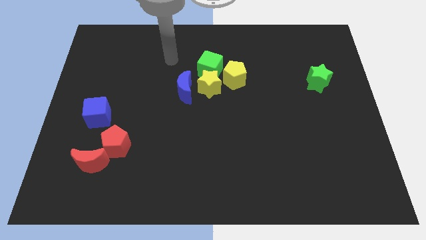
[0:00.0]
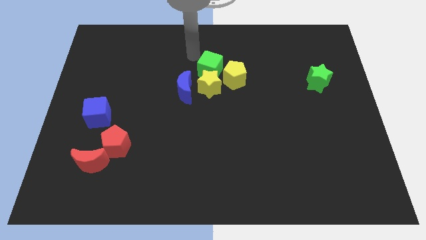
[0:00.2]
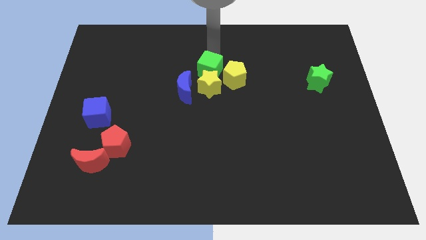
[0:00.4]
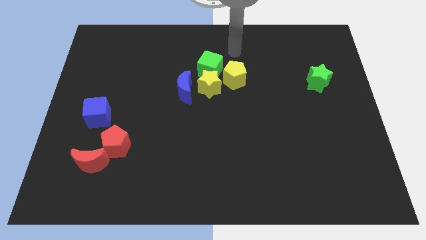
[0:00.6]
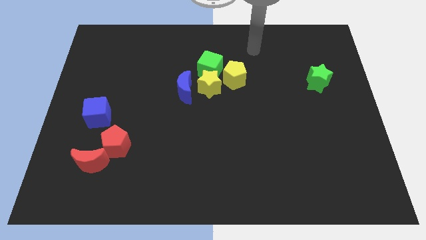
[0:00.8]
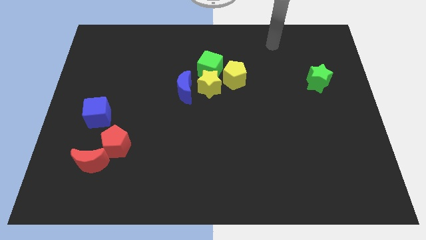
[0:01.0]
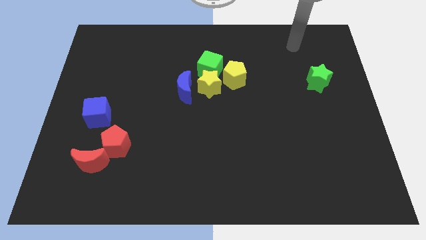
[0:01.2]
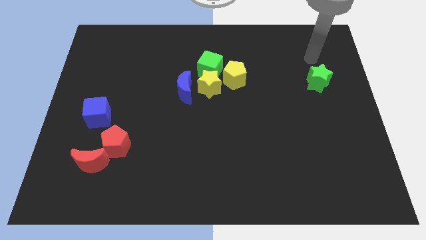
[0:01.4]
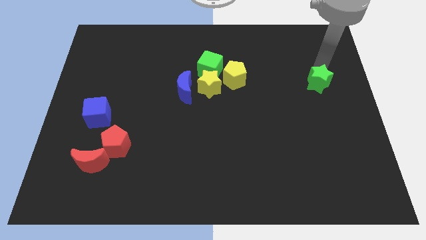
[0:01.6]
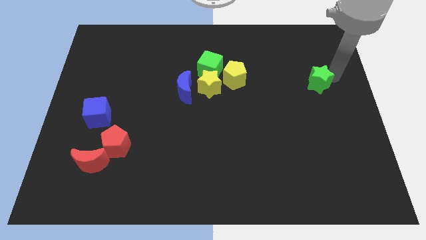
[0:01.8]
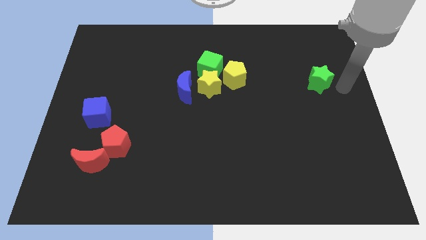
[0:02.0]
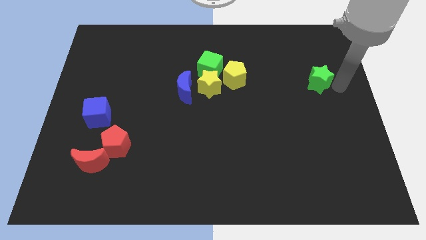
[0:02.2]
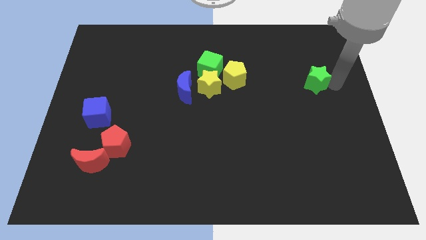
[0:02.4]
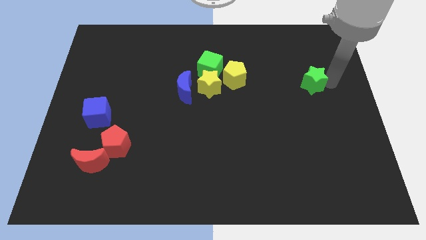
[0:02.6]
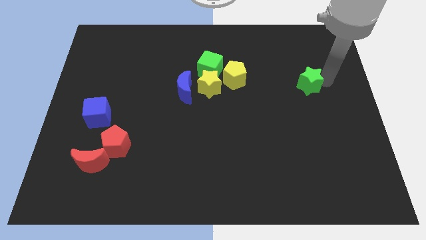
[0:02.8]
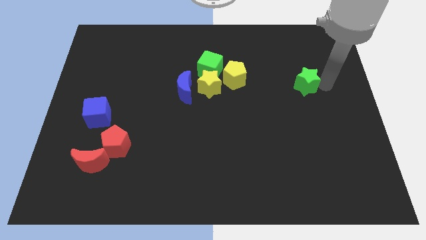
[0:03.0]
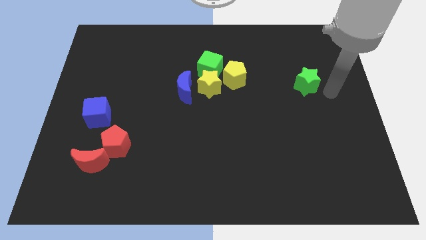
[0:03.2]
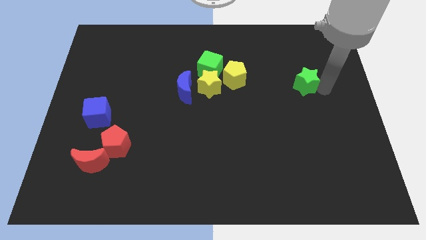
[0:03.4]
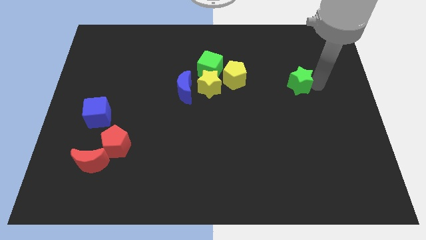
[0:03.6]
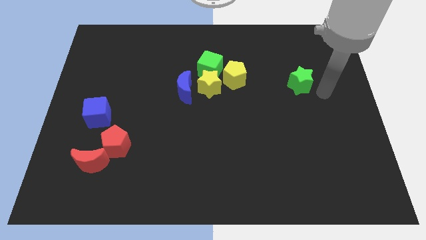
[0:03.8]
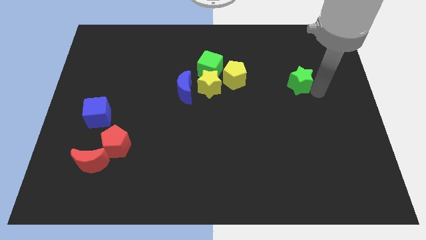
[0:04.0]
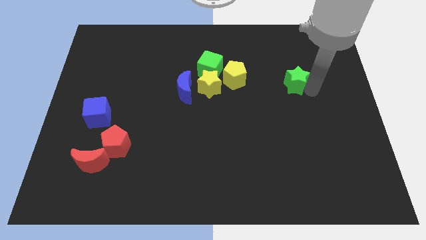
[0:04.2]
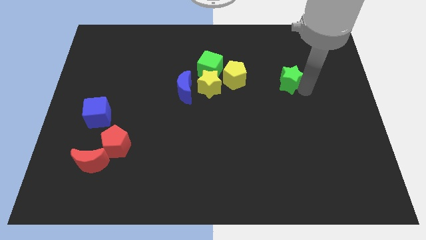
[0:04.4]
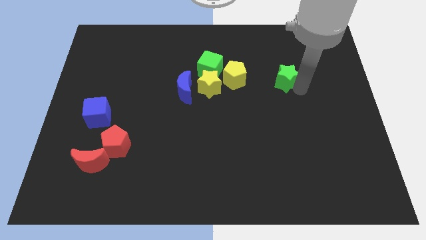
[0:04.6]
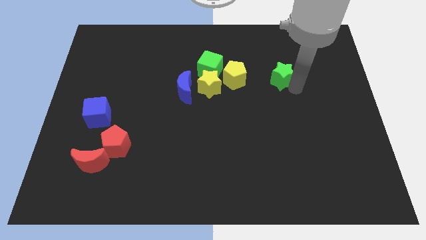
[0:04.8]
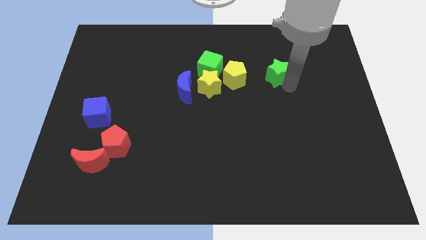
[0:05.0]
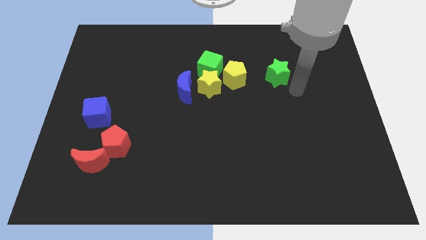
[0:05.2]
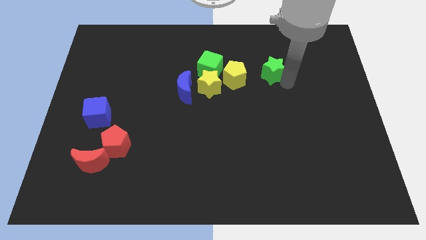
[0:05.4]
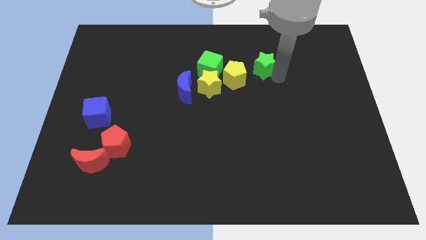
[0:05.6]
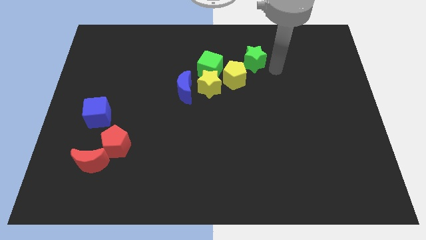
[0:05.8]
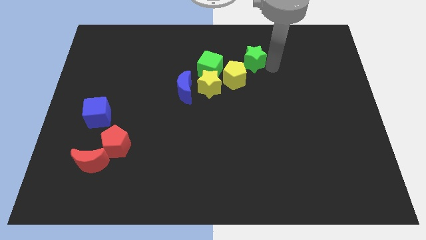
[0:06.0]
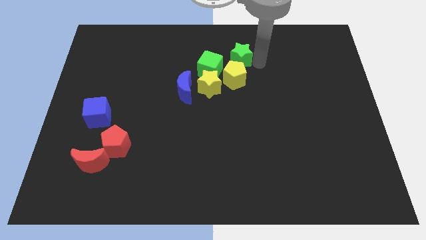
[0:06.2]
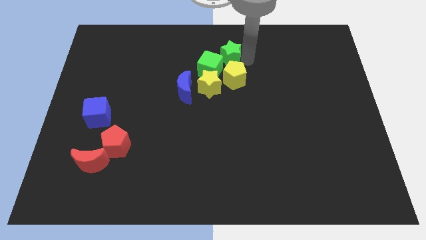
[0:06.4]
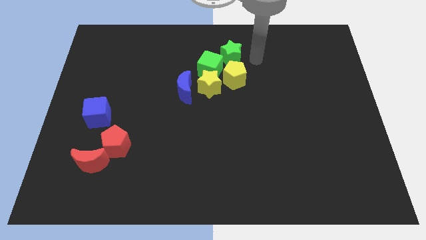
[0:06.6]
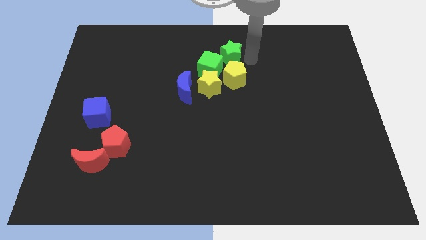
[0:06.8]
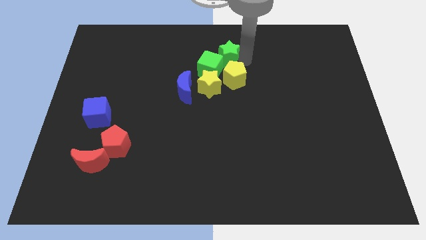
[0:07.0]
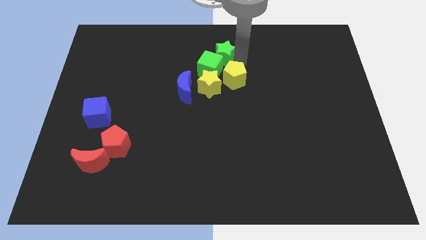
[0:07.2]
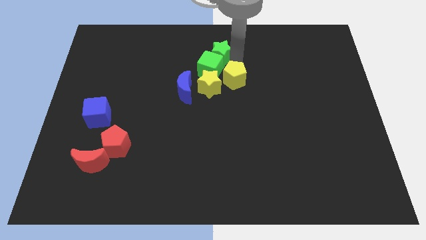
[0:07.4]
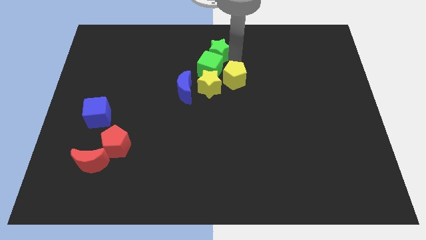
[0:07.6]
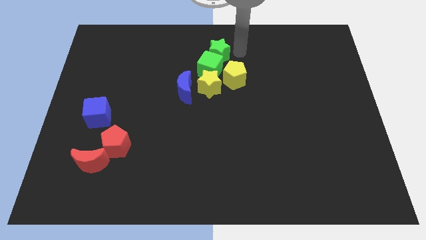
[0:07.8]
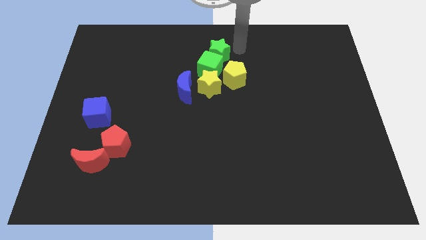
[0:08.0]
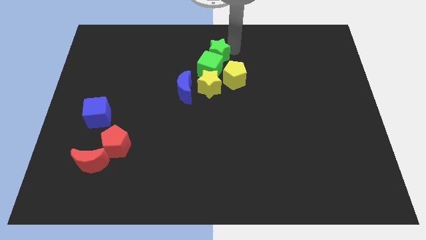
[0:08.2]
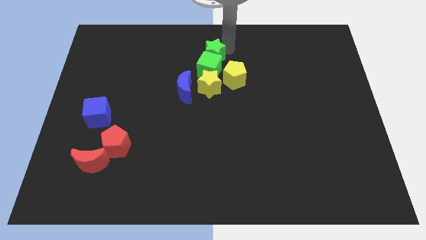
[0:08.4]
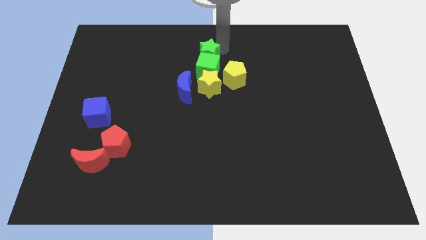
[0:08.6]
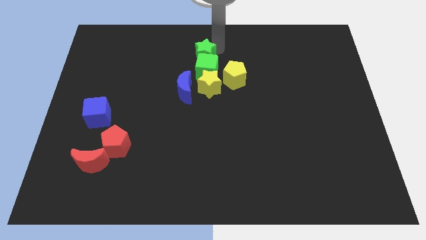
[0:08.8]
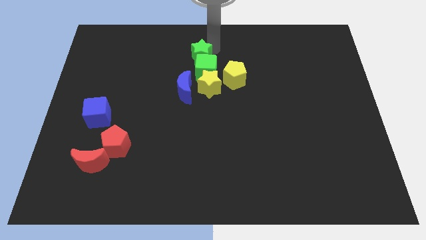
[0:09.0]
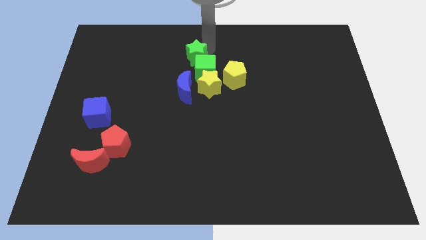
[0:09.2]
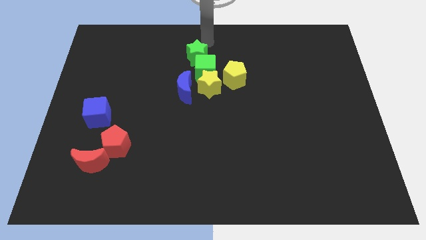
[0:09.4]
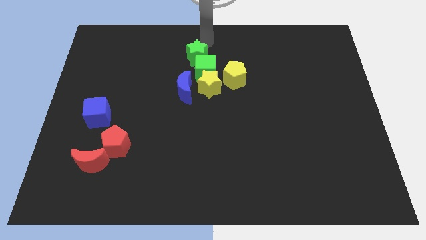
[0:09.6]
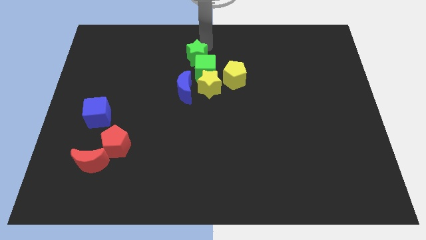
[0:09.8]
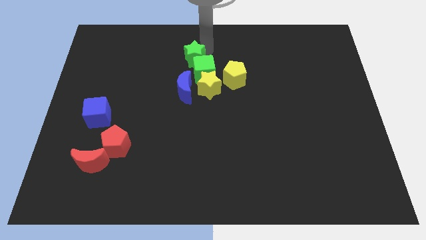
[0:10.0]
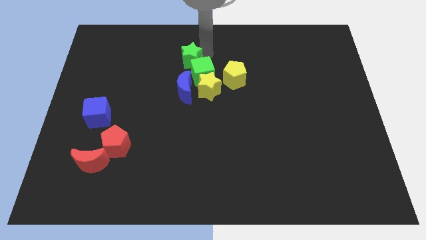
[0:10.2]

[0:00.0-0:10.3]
put the green star diagonally up and to the left of the yellow star

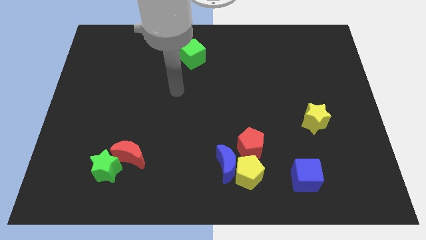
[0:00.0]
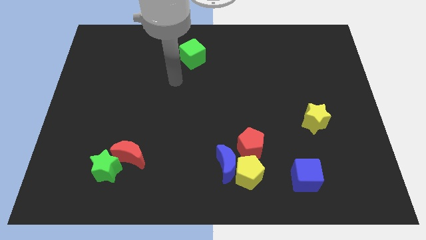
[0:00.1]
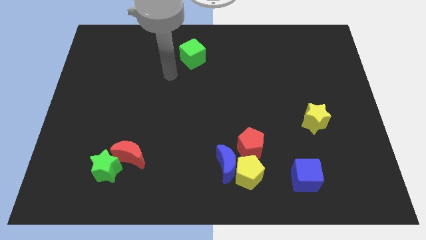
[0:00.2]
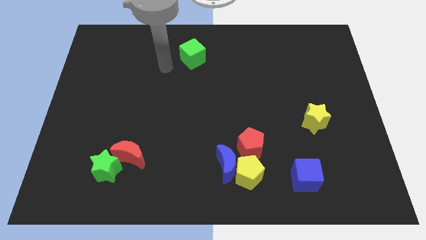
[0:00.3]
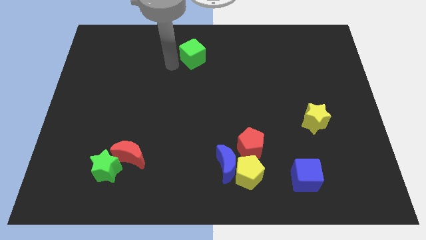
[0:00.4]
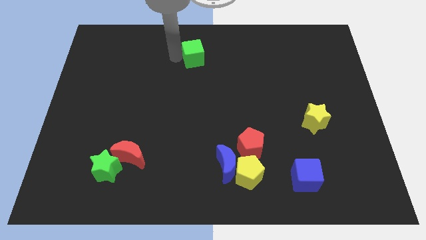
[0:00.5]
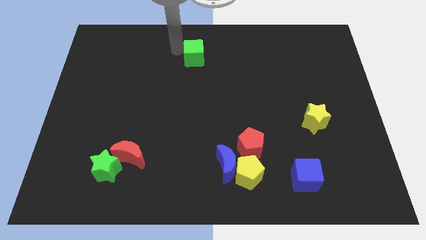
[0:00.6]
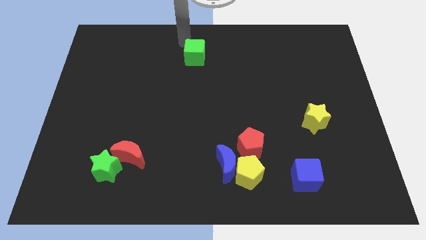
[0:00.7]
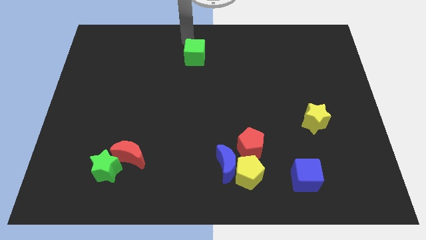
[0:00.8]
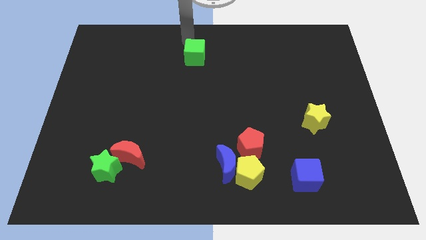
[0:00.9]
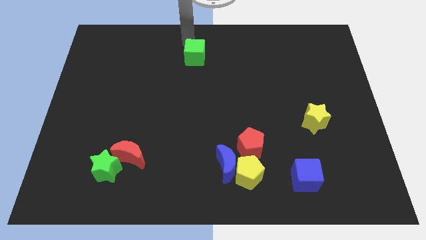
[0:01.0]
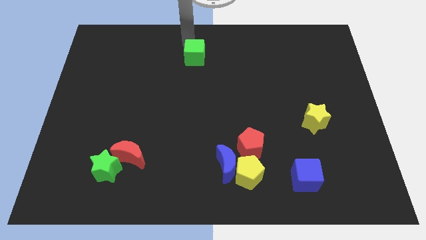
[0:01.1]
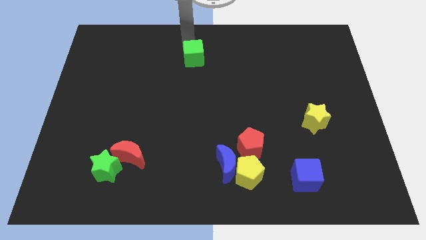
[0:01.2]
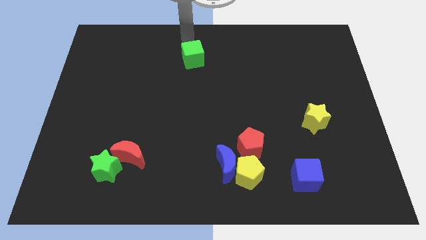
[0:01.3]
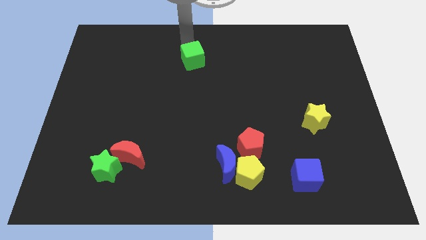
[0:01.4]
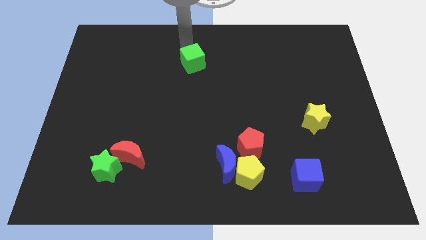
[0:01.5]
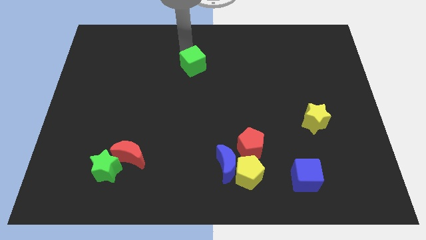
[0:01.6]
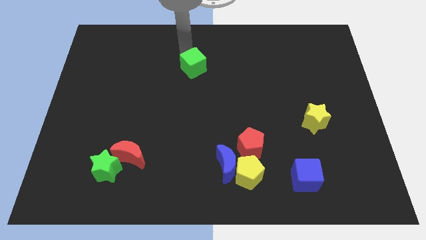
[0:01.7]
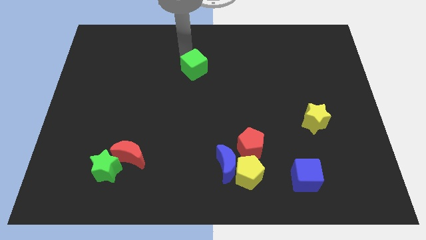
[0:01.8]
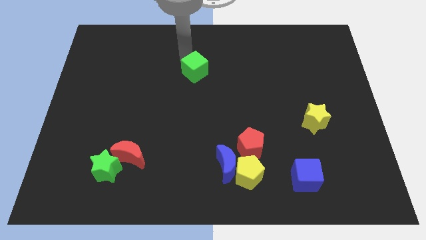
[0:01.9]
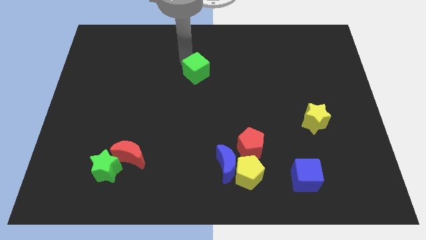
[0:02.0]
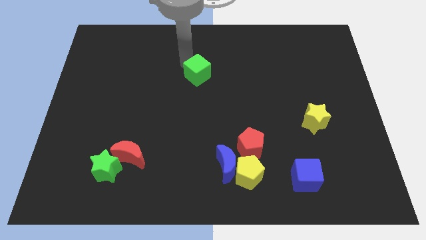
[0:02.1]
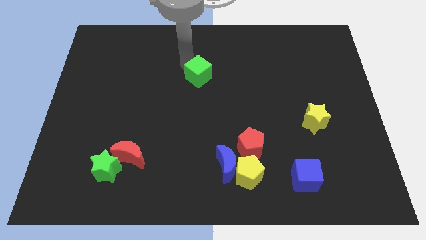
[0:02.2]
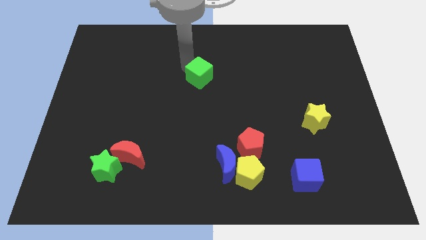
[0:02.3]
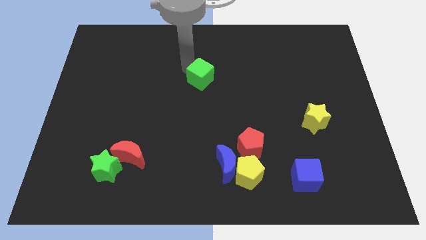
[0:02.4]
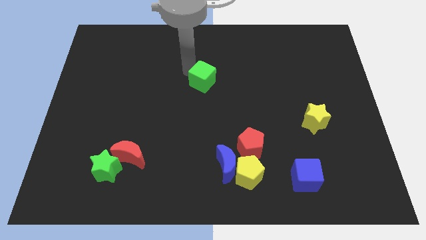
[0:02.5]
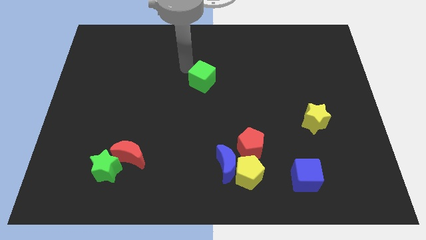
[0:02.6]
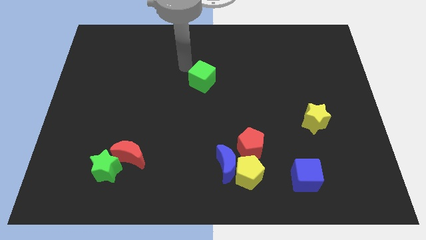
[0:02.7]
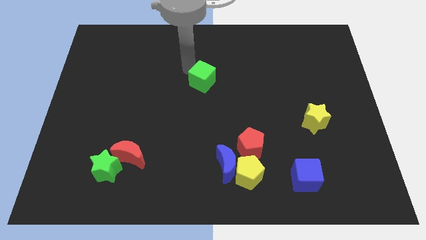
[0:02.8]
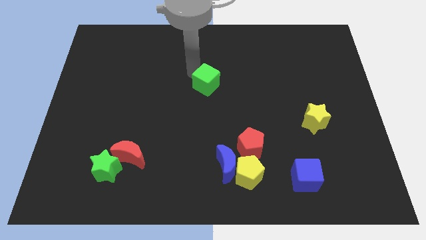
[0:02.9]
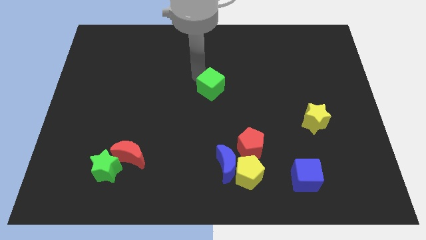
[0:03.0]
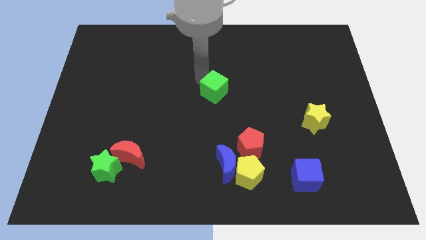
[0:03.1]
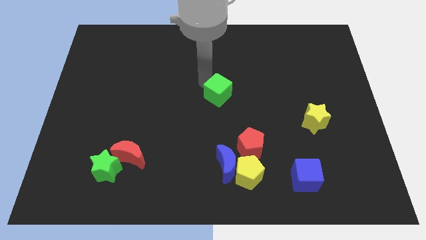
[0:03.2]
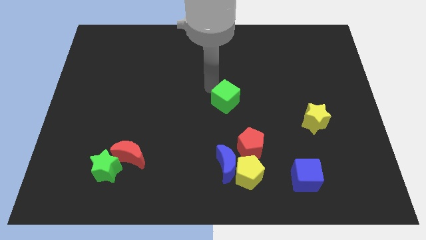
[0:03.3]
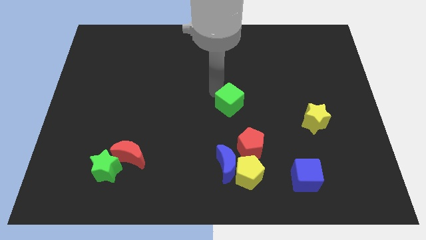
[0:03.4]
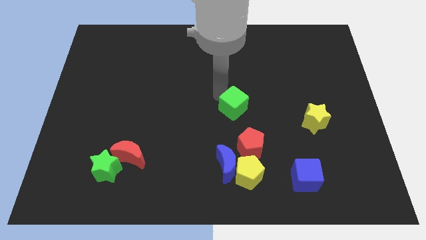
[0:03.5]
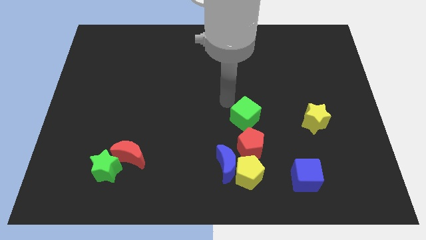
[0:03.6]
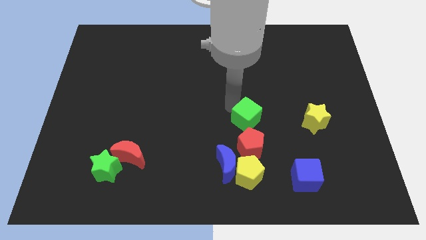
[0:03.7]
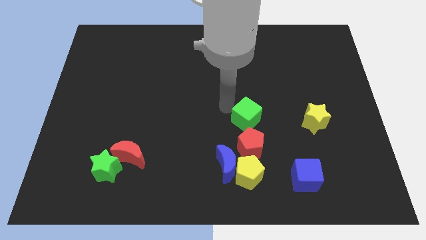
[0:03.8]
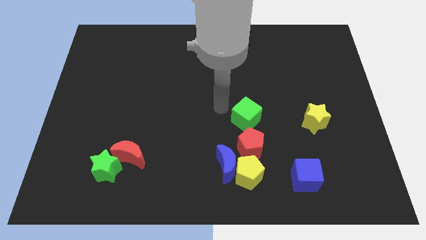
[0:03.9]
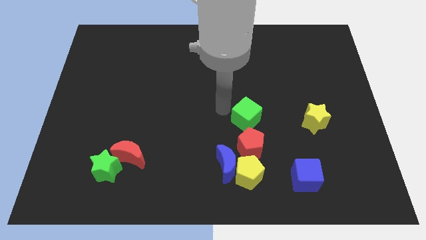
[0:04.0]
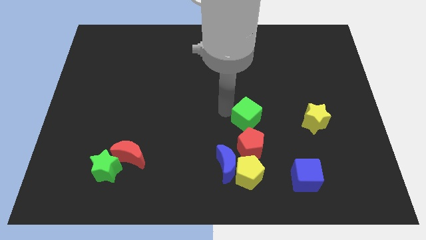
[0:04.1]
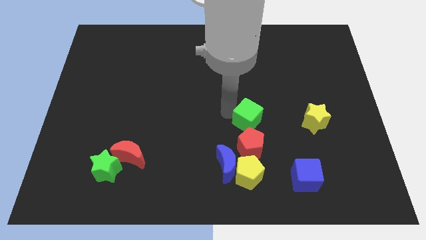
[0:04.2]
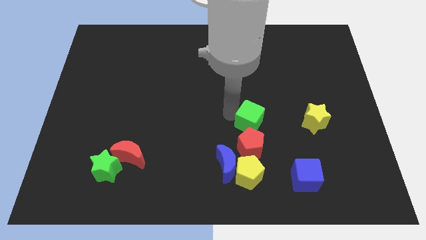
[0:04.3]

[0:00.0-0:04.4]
put the green cube to the top right side of the red pentagon
